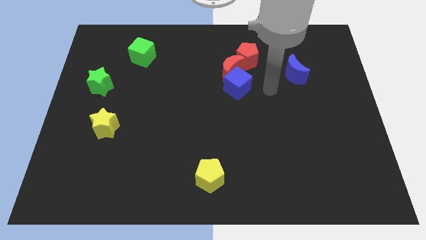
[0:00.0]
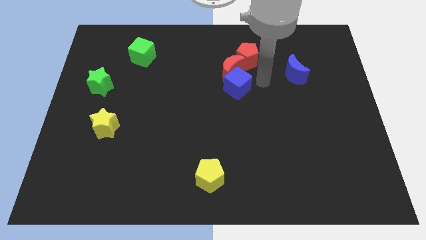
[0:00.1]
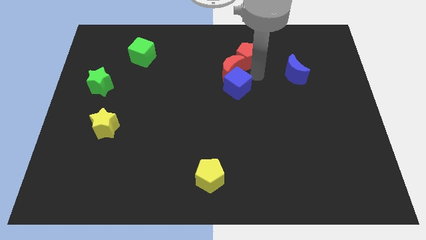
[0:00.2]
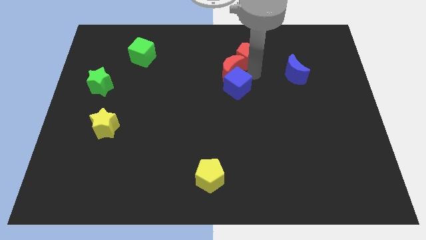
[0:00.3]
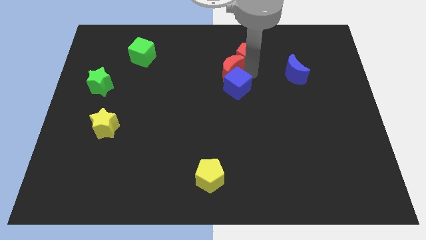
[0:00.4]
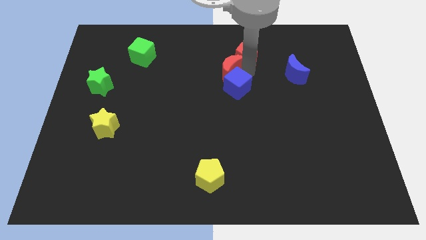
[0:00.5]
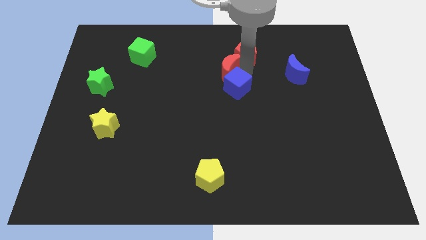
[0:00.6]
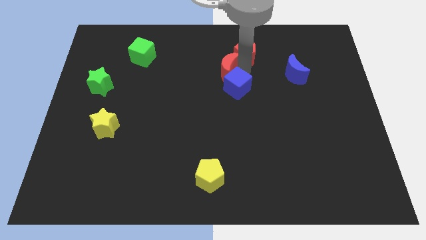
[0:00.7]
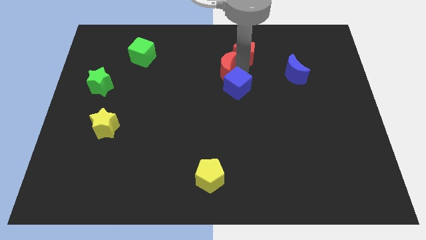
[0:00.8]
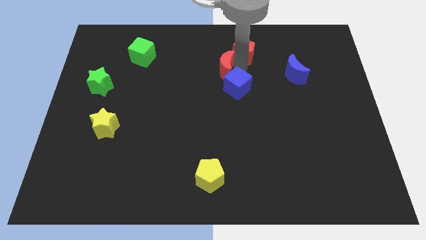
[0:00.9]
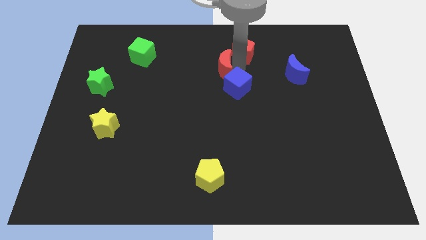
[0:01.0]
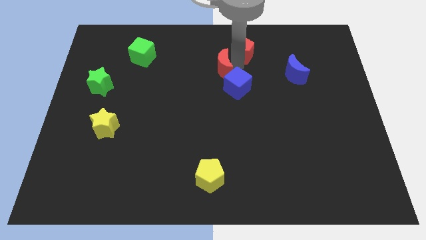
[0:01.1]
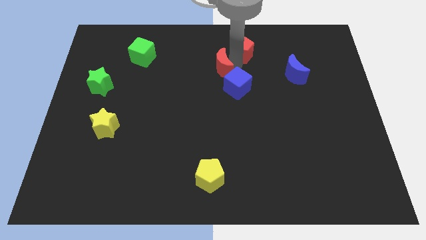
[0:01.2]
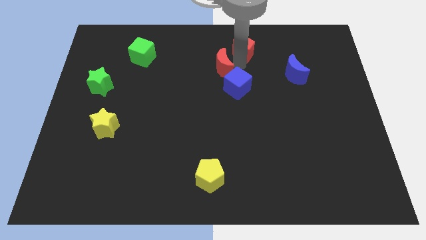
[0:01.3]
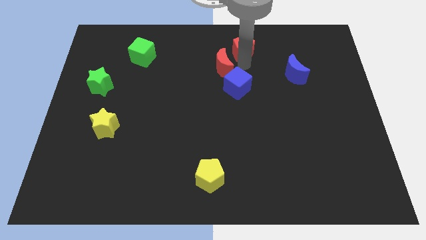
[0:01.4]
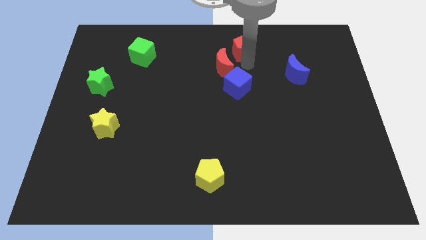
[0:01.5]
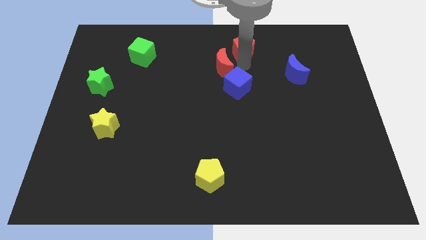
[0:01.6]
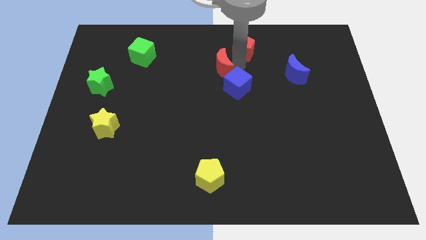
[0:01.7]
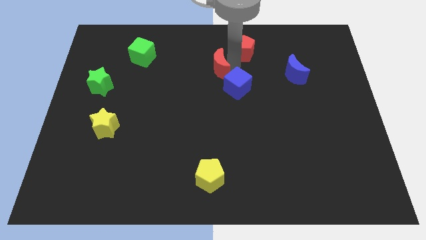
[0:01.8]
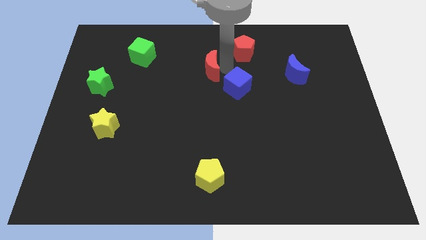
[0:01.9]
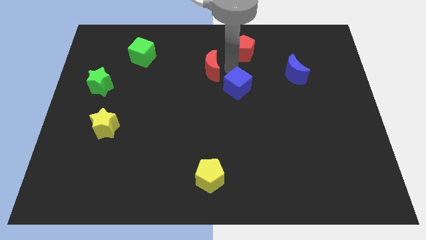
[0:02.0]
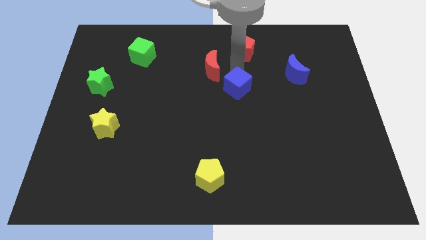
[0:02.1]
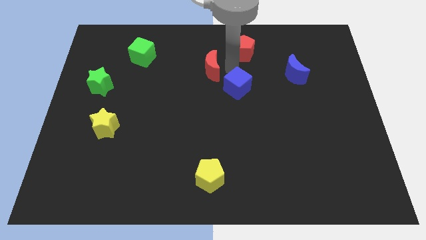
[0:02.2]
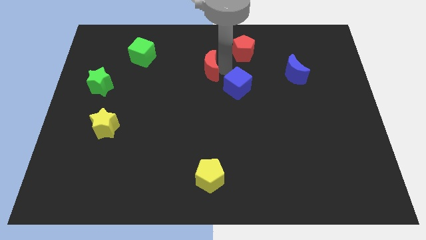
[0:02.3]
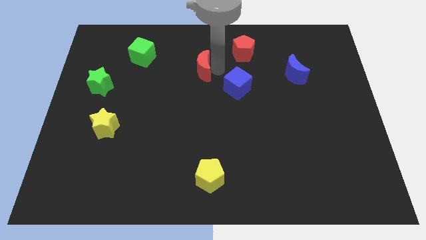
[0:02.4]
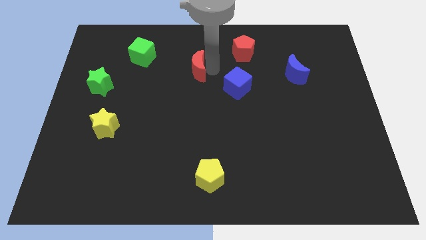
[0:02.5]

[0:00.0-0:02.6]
separate the red moon from the blue cube and red pentagon

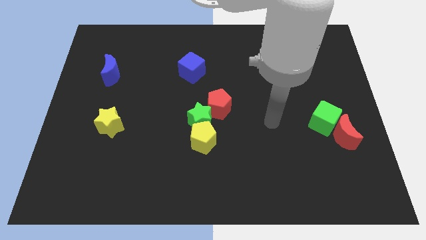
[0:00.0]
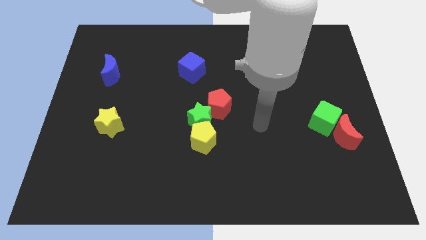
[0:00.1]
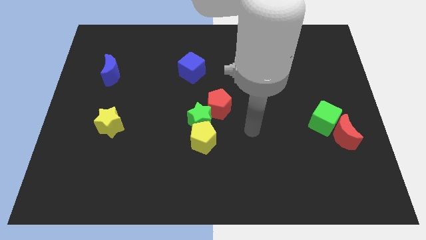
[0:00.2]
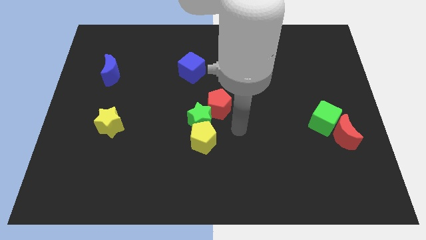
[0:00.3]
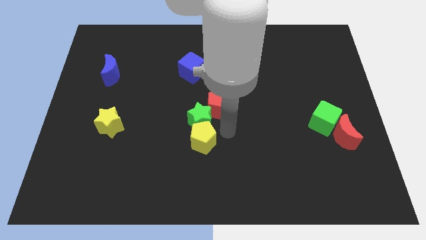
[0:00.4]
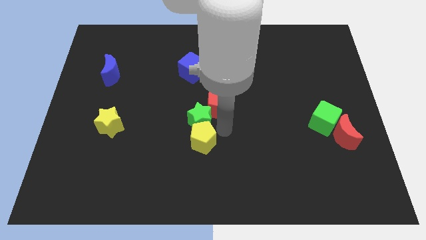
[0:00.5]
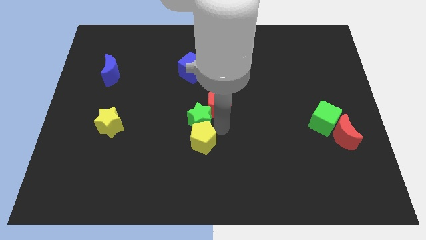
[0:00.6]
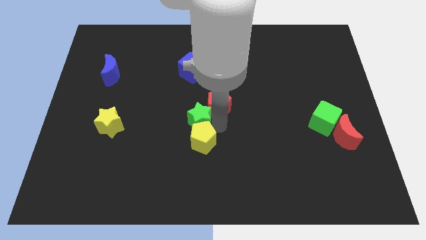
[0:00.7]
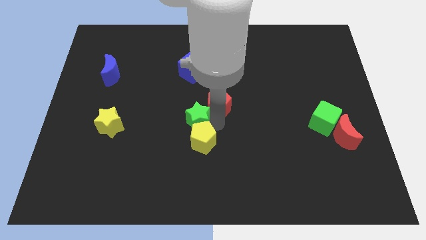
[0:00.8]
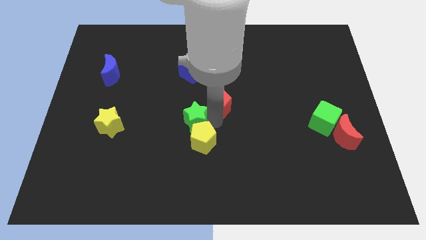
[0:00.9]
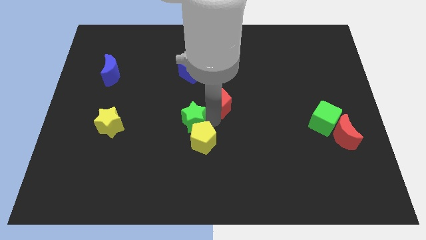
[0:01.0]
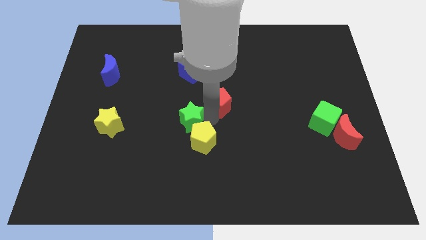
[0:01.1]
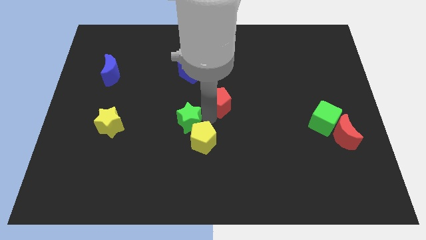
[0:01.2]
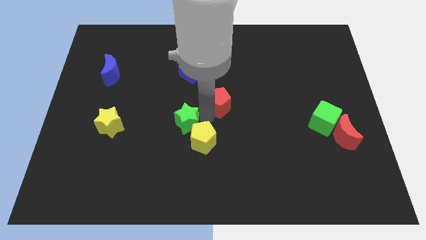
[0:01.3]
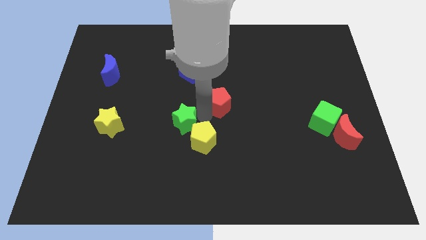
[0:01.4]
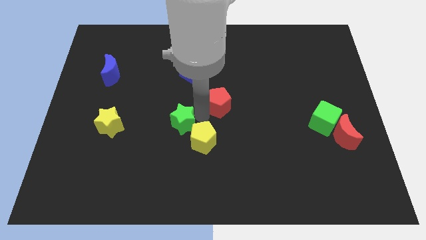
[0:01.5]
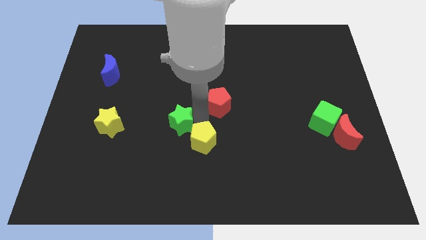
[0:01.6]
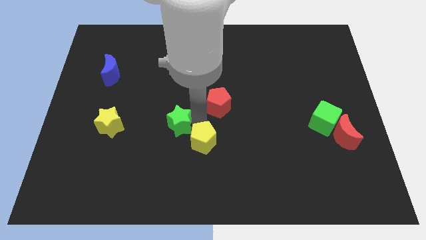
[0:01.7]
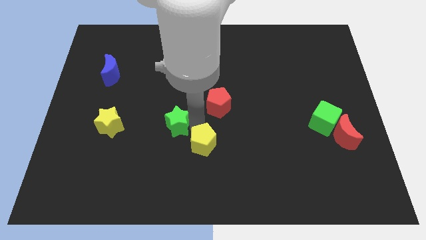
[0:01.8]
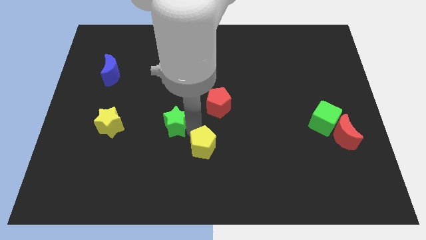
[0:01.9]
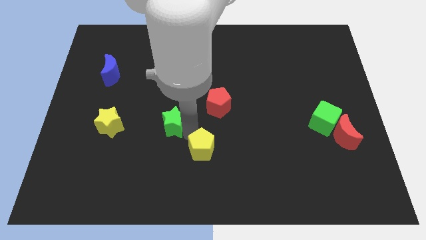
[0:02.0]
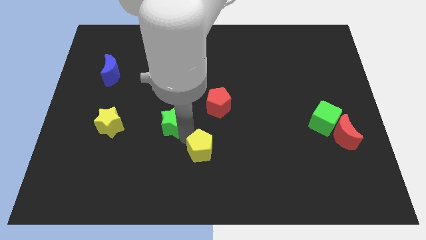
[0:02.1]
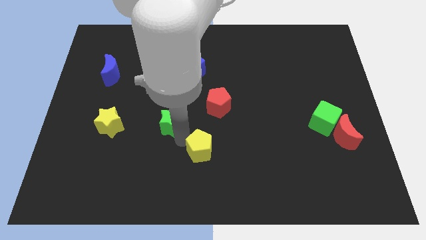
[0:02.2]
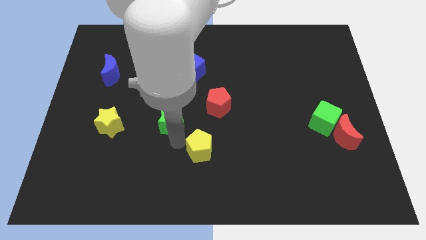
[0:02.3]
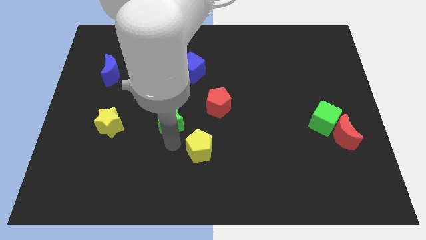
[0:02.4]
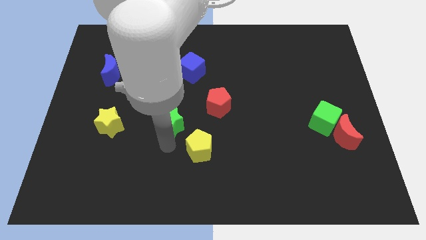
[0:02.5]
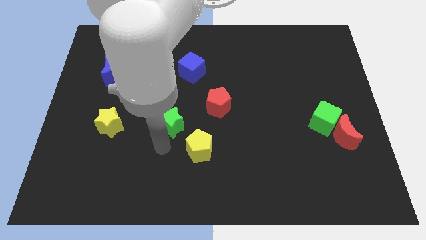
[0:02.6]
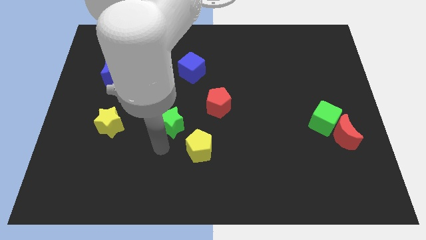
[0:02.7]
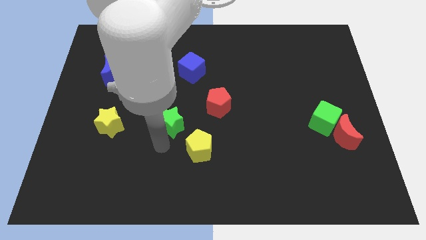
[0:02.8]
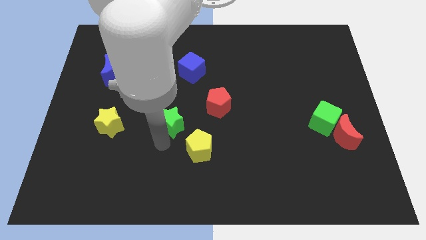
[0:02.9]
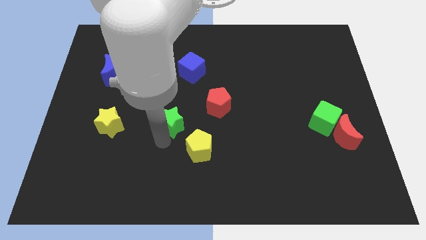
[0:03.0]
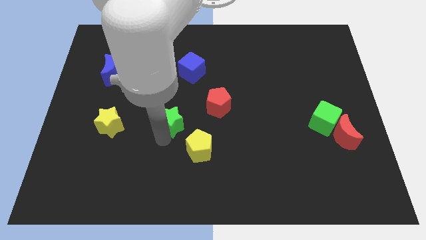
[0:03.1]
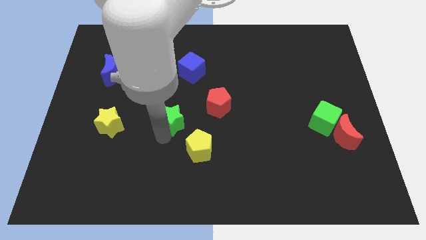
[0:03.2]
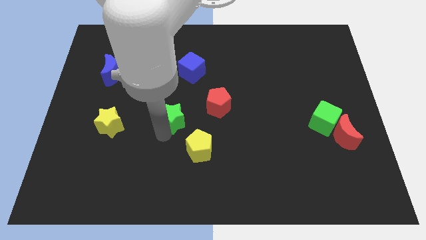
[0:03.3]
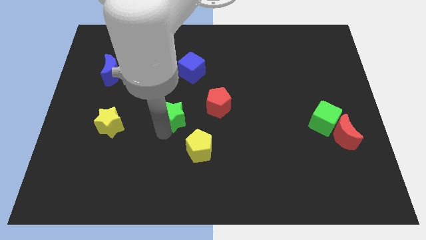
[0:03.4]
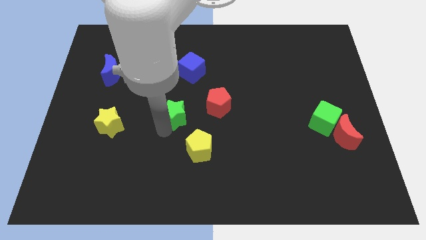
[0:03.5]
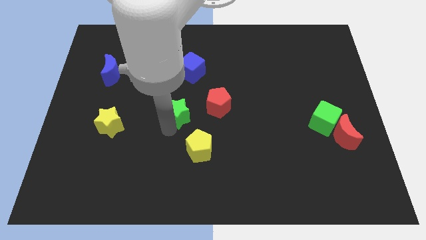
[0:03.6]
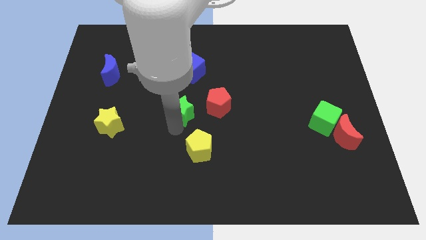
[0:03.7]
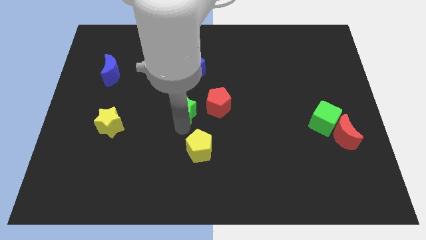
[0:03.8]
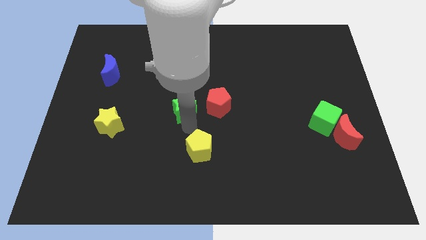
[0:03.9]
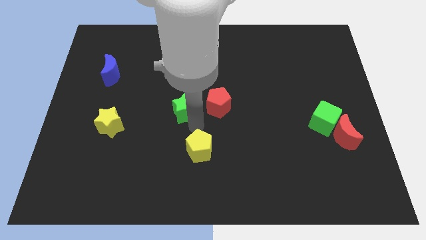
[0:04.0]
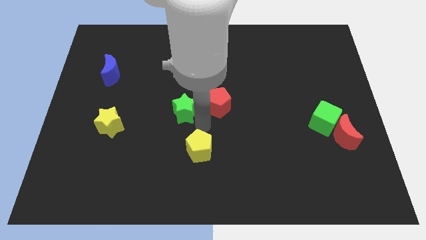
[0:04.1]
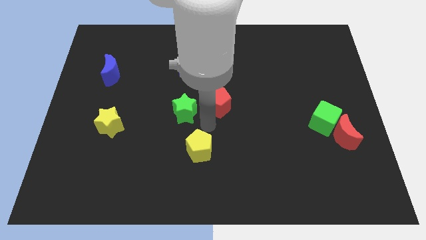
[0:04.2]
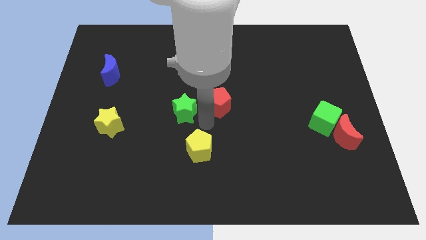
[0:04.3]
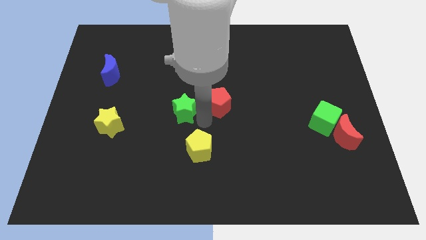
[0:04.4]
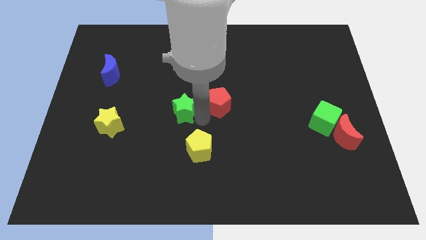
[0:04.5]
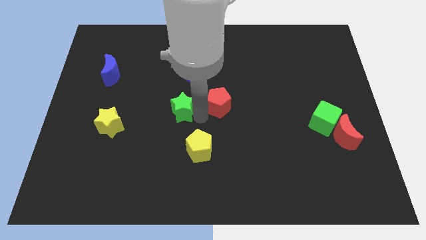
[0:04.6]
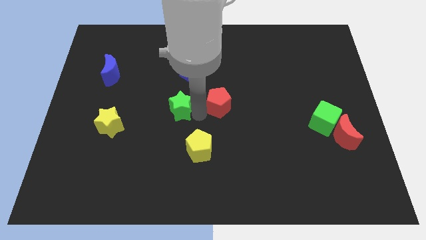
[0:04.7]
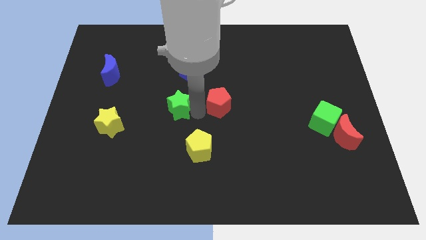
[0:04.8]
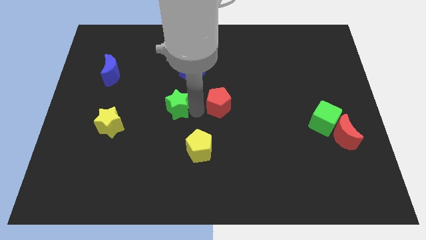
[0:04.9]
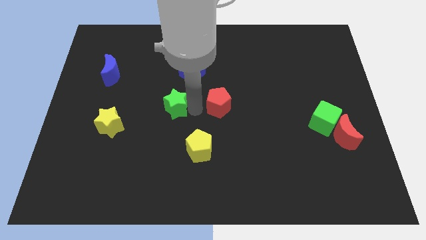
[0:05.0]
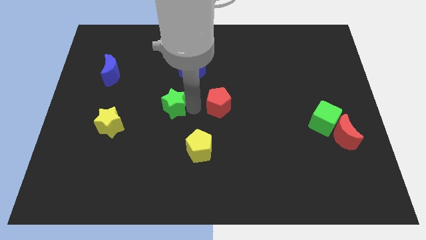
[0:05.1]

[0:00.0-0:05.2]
separate the green star from the yellow pentagon and red pentagon

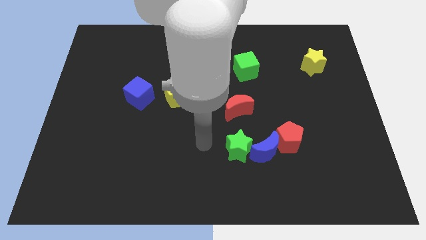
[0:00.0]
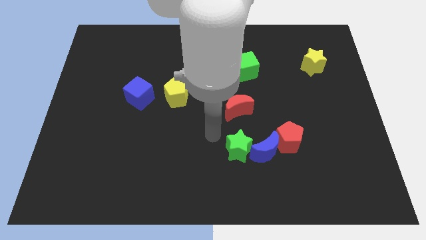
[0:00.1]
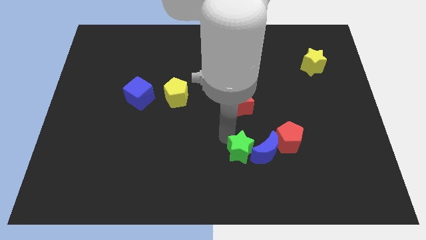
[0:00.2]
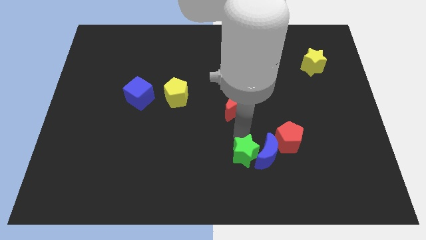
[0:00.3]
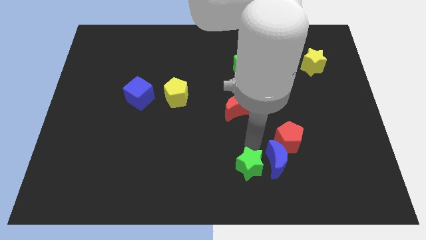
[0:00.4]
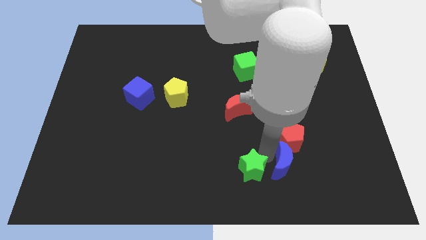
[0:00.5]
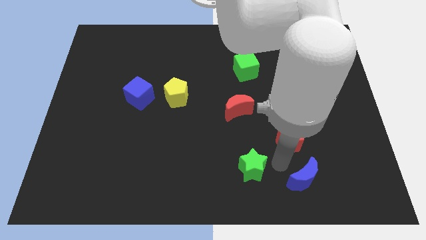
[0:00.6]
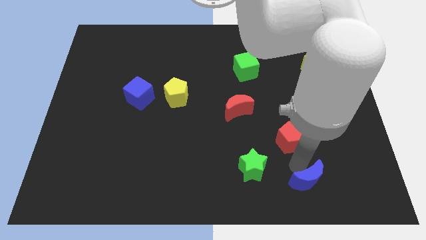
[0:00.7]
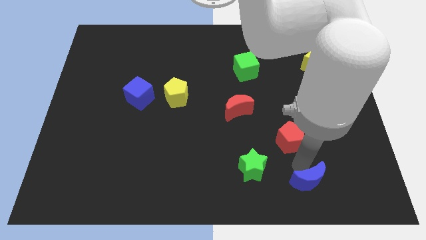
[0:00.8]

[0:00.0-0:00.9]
move the red pentagon away from the blue moon

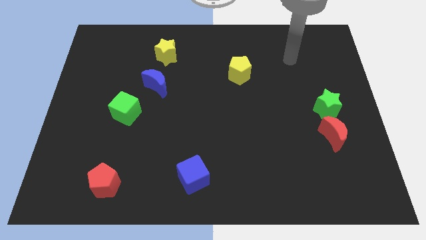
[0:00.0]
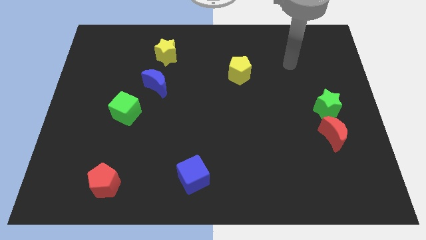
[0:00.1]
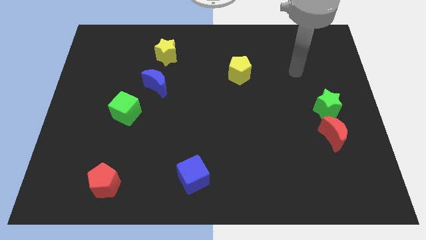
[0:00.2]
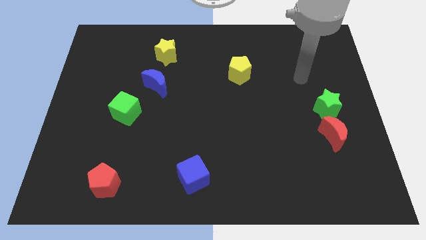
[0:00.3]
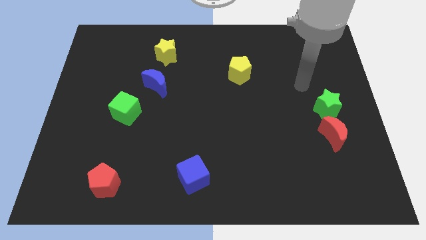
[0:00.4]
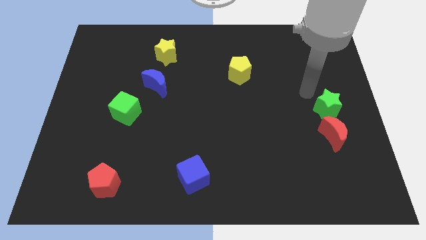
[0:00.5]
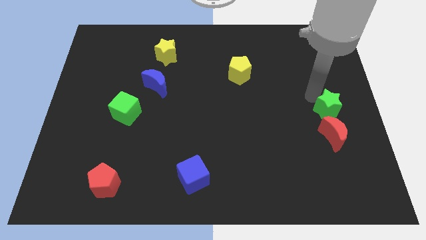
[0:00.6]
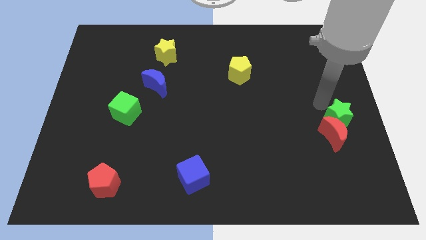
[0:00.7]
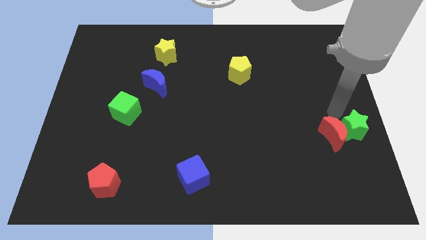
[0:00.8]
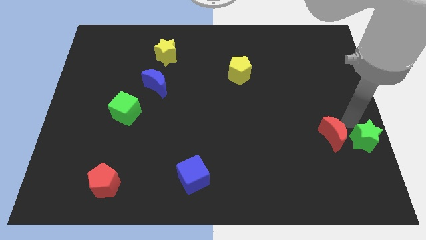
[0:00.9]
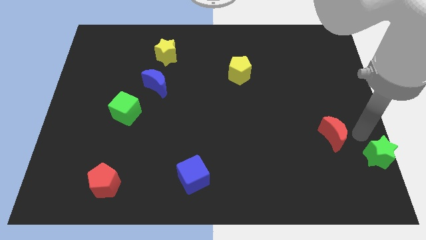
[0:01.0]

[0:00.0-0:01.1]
pull the red moon apart from the green star
